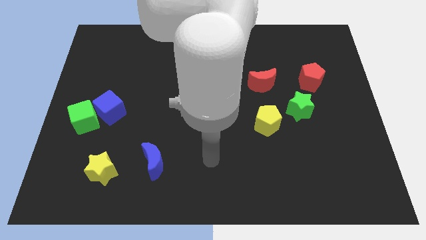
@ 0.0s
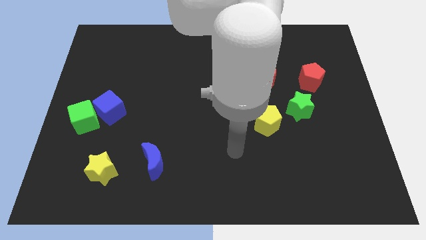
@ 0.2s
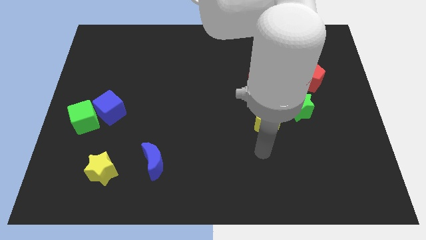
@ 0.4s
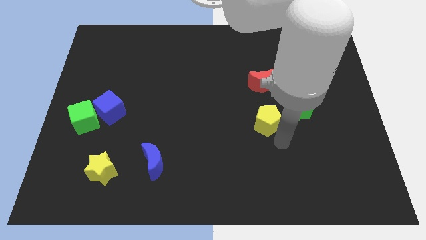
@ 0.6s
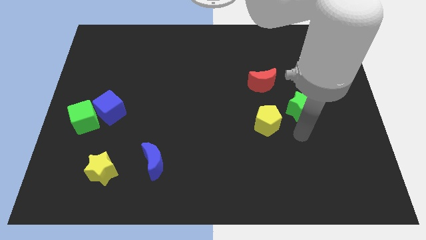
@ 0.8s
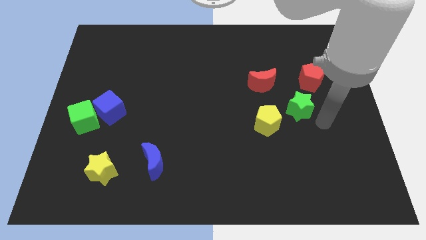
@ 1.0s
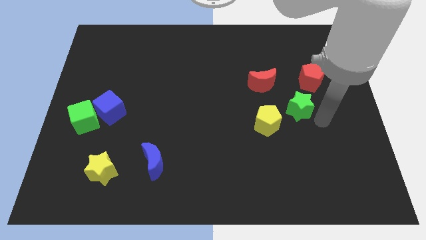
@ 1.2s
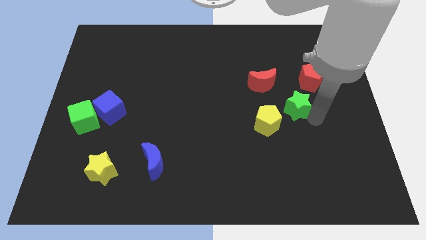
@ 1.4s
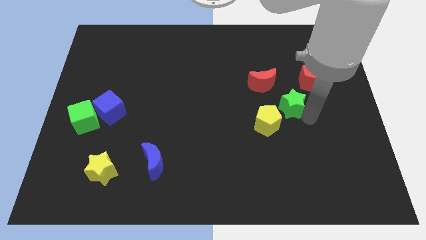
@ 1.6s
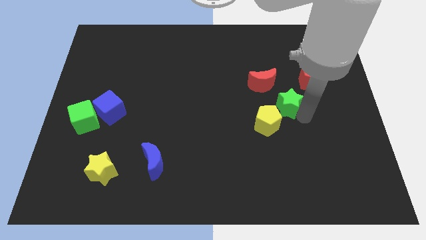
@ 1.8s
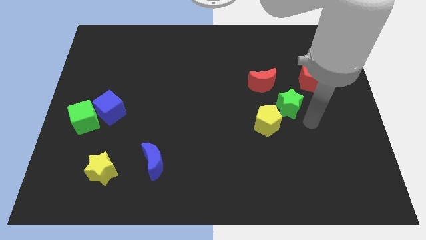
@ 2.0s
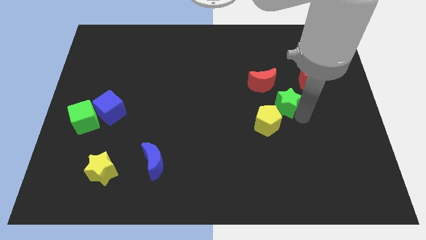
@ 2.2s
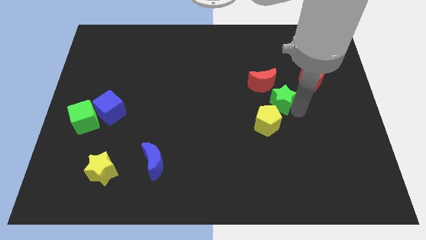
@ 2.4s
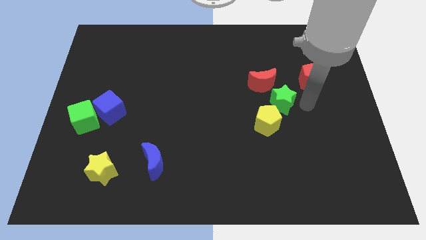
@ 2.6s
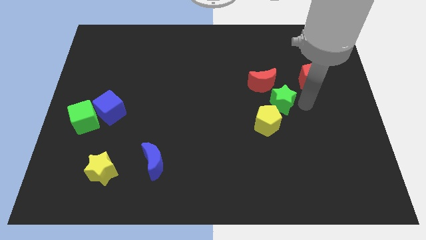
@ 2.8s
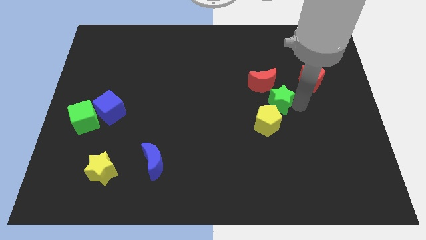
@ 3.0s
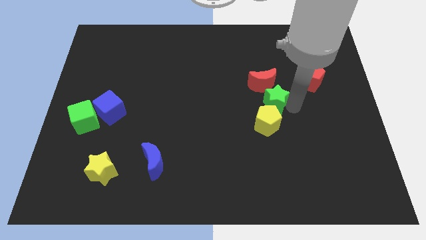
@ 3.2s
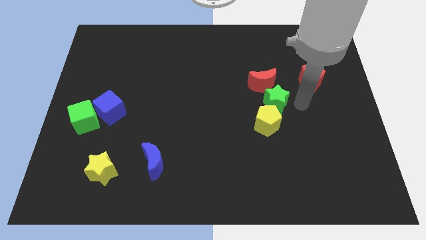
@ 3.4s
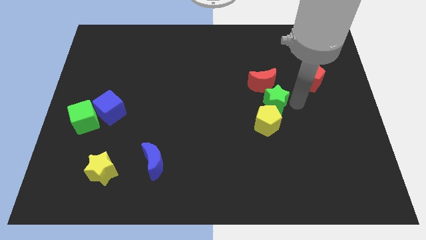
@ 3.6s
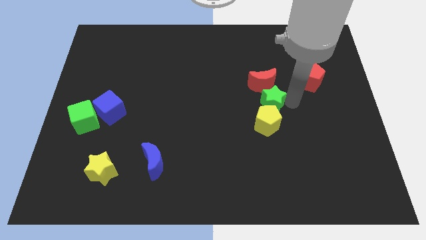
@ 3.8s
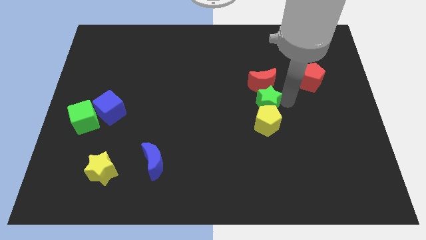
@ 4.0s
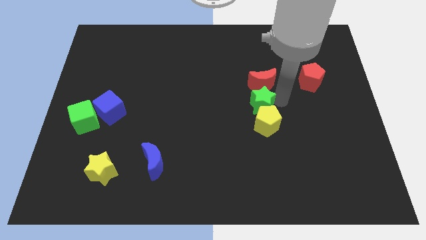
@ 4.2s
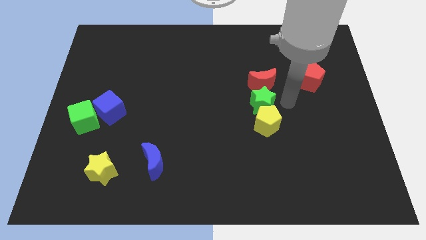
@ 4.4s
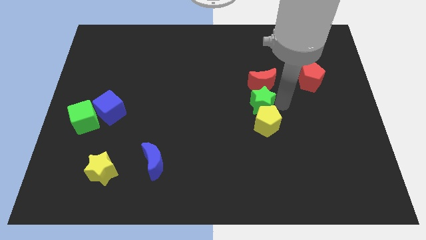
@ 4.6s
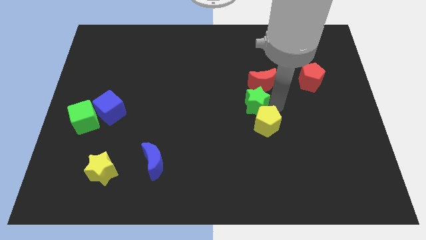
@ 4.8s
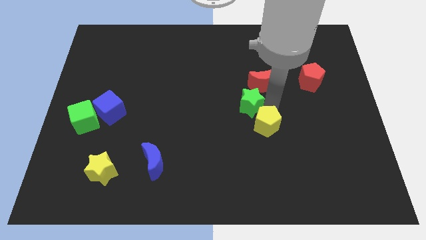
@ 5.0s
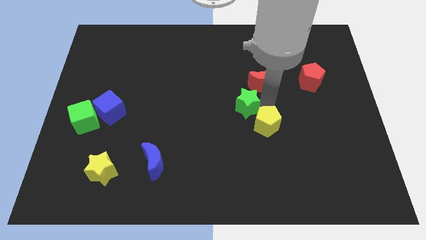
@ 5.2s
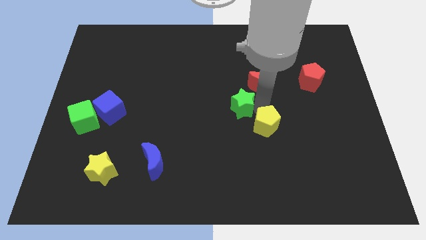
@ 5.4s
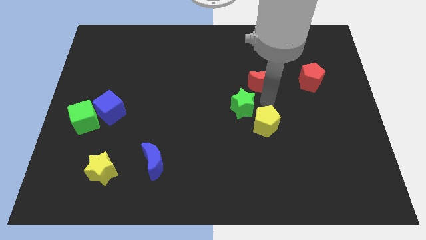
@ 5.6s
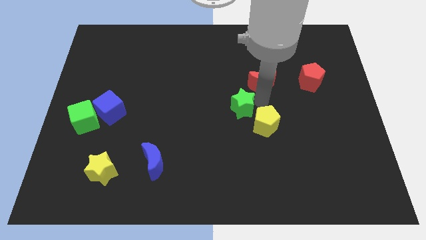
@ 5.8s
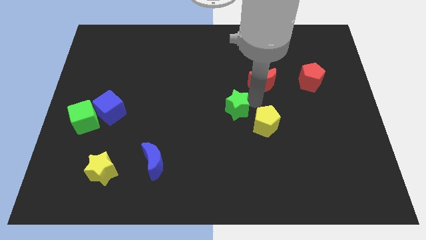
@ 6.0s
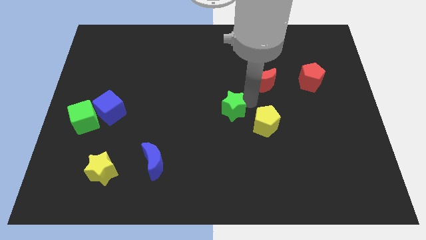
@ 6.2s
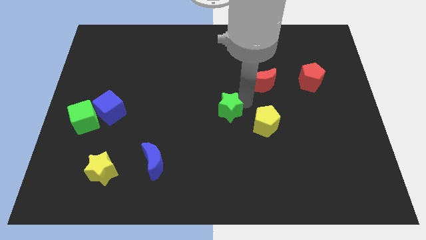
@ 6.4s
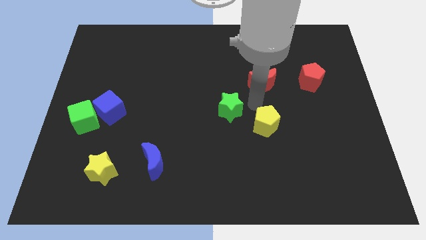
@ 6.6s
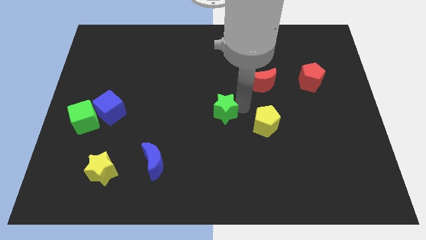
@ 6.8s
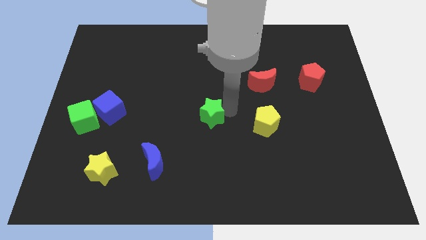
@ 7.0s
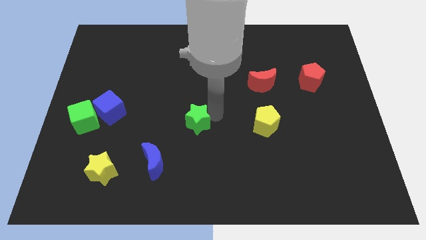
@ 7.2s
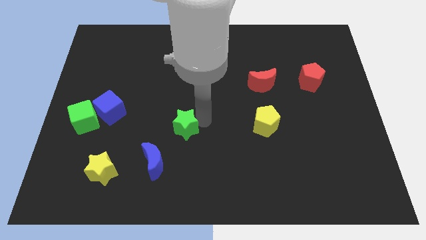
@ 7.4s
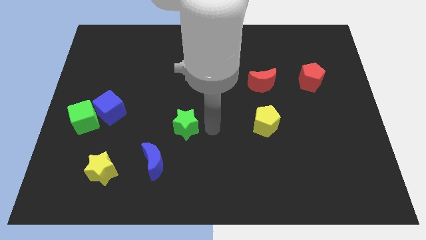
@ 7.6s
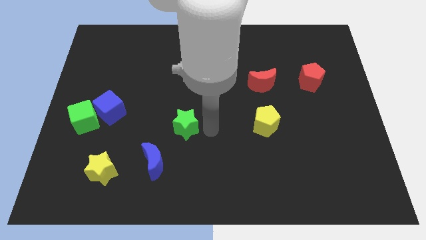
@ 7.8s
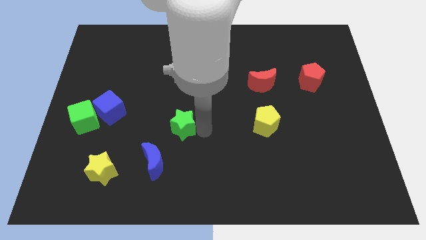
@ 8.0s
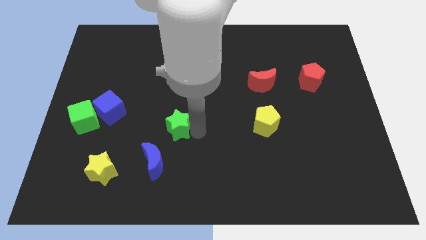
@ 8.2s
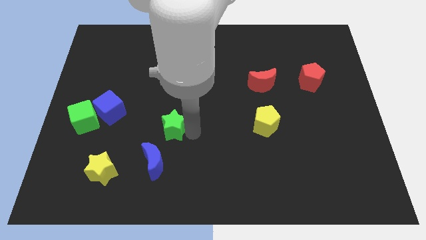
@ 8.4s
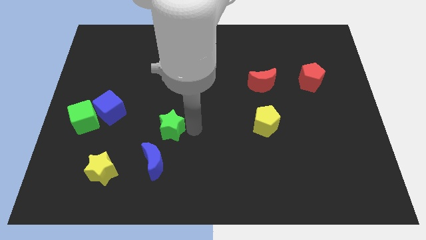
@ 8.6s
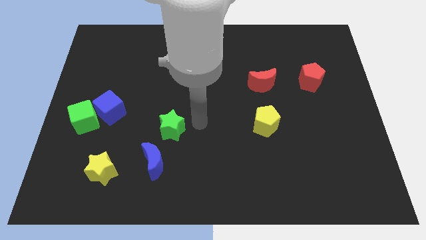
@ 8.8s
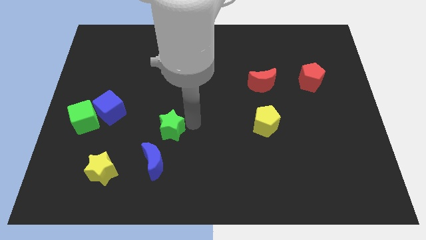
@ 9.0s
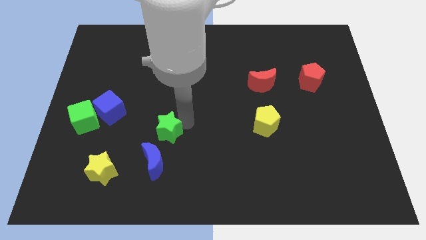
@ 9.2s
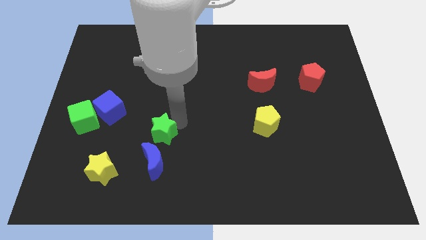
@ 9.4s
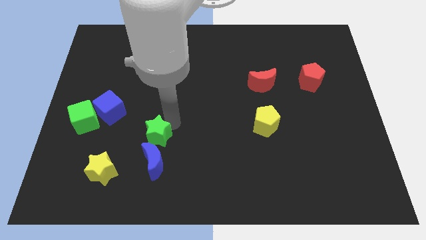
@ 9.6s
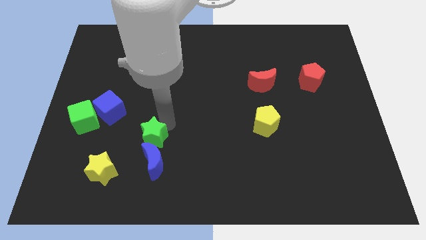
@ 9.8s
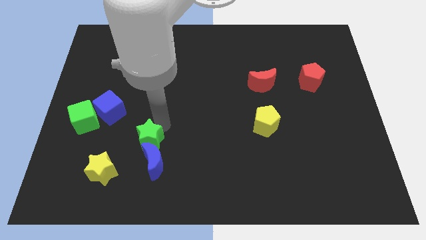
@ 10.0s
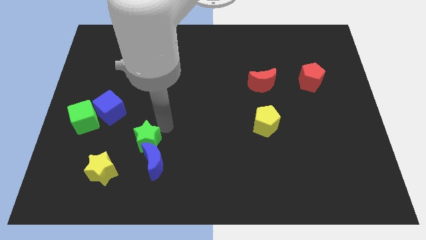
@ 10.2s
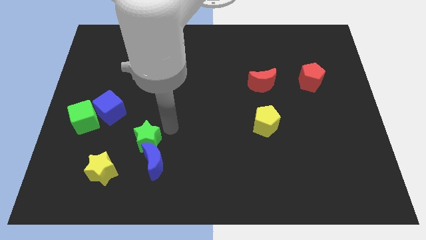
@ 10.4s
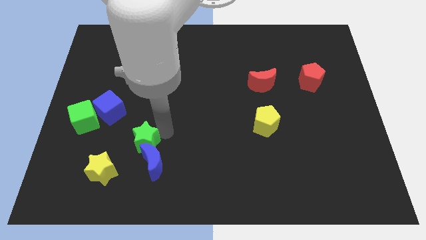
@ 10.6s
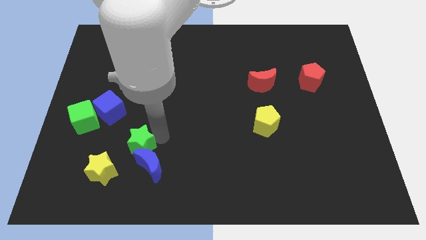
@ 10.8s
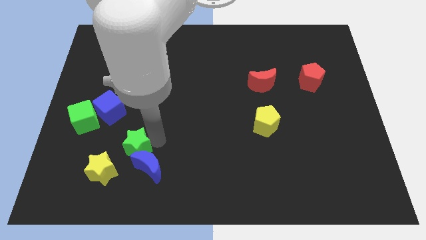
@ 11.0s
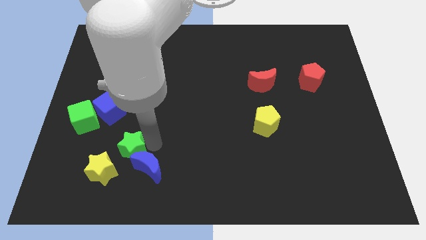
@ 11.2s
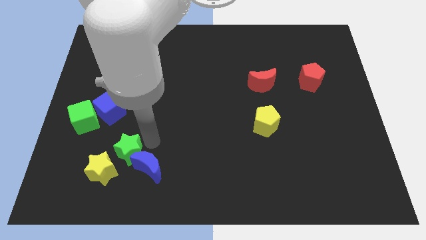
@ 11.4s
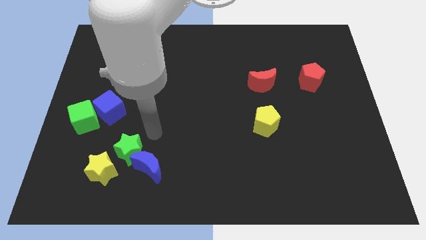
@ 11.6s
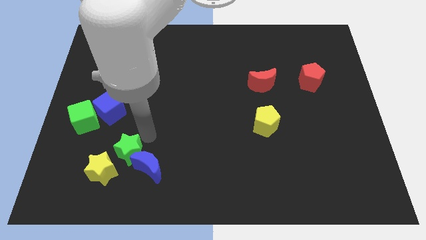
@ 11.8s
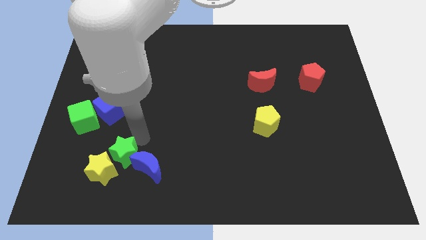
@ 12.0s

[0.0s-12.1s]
push the green star close to the yellow star

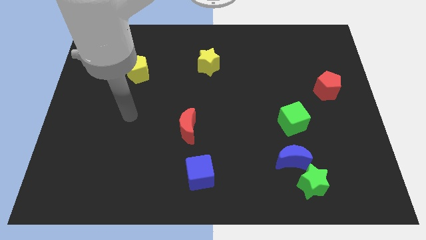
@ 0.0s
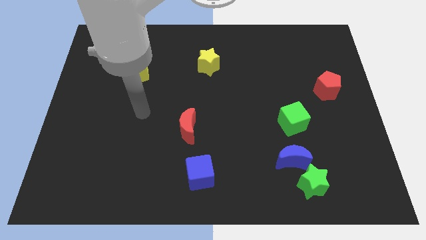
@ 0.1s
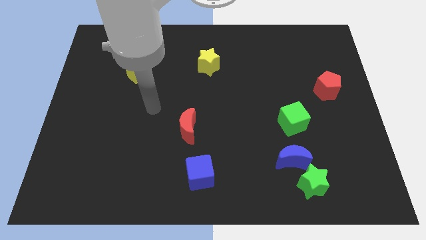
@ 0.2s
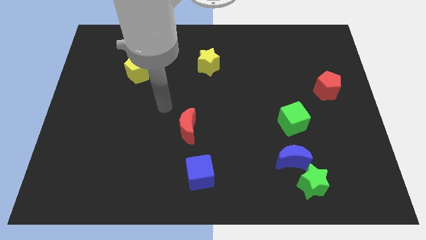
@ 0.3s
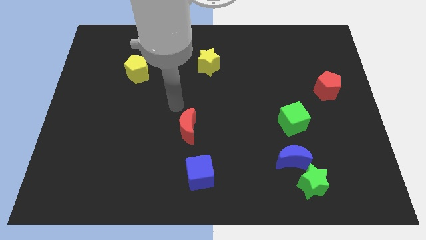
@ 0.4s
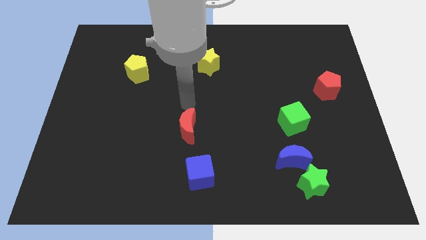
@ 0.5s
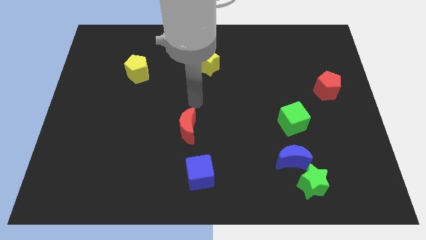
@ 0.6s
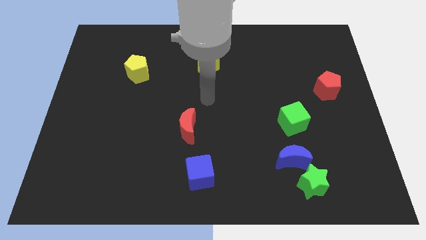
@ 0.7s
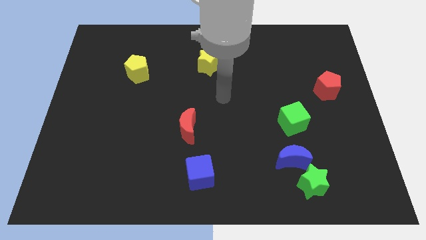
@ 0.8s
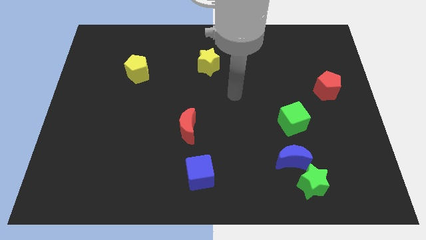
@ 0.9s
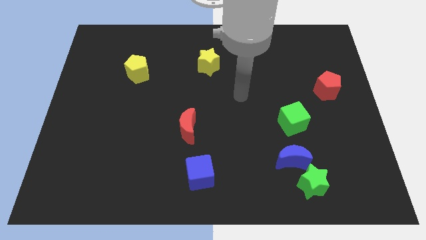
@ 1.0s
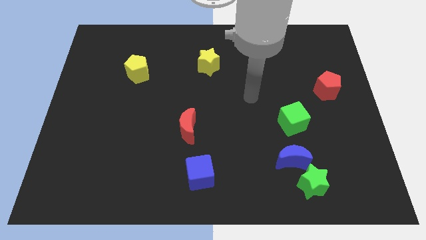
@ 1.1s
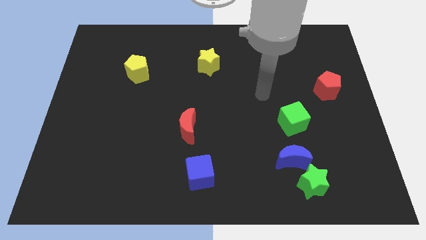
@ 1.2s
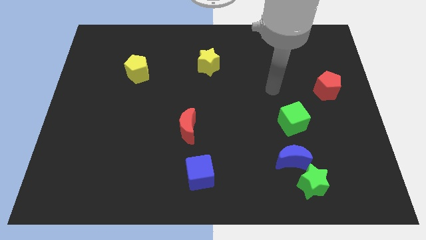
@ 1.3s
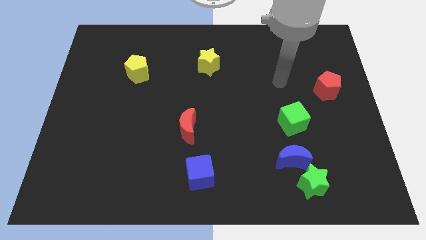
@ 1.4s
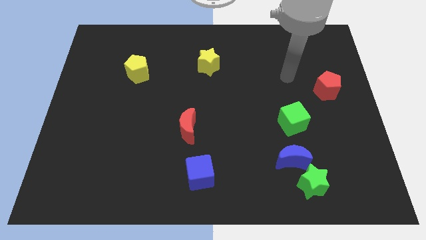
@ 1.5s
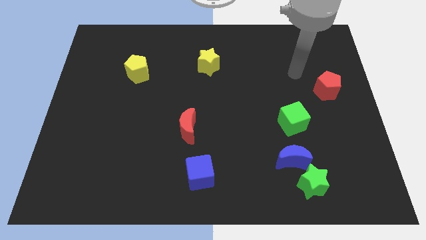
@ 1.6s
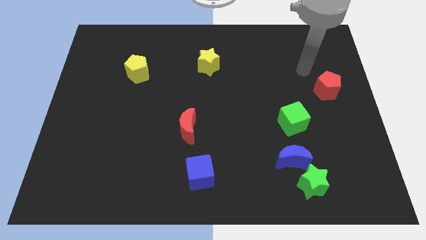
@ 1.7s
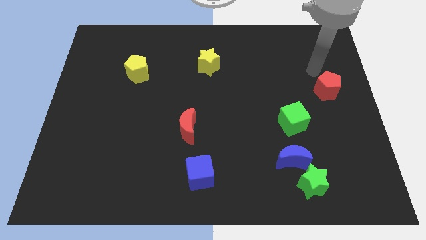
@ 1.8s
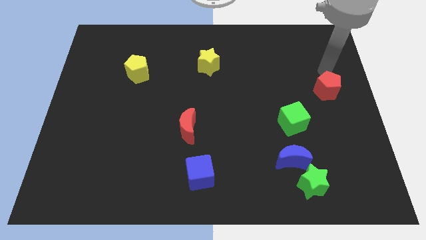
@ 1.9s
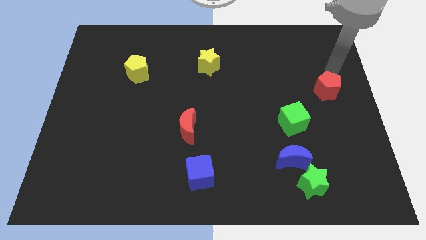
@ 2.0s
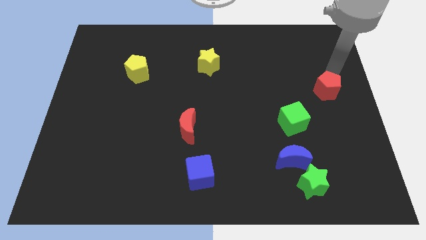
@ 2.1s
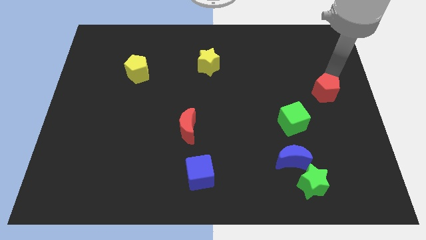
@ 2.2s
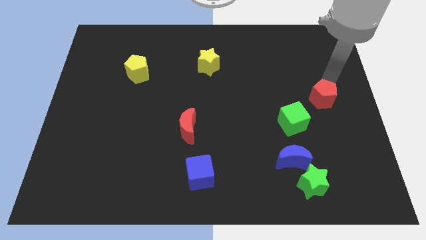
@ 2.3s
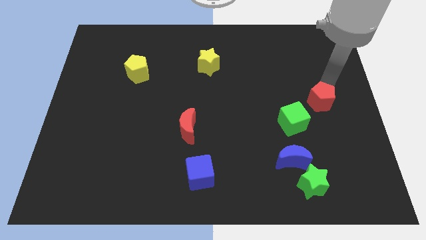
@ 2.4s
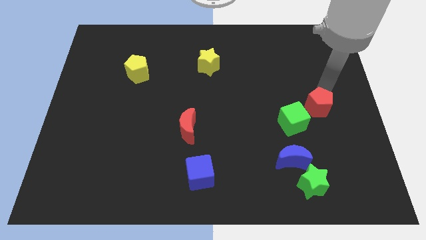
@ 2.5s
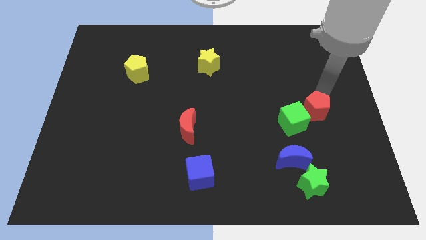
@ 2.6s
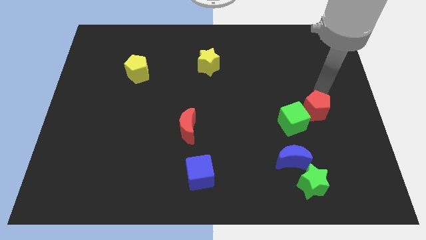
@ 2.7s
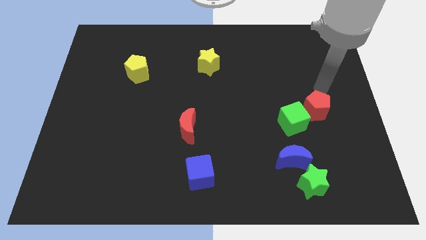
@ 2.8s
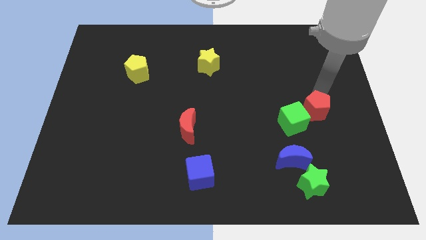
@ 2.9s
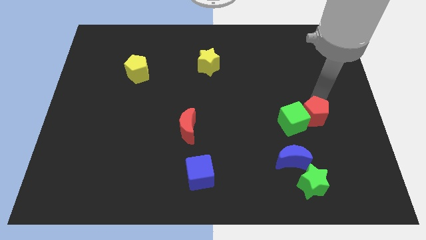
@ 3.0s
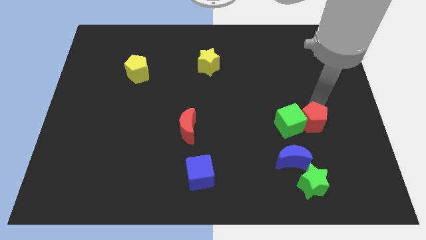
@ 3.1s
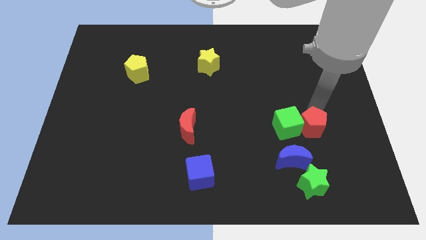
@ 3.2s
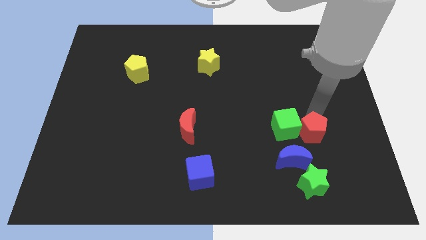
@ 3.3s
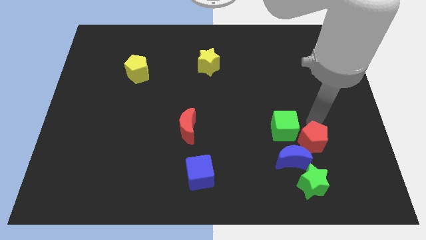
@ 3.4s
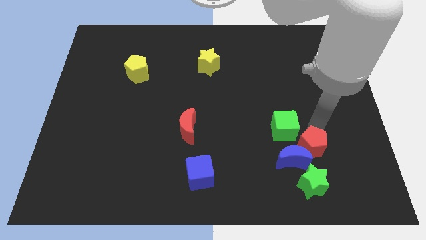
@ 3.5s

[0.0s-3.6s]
push the red pentagon to the blue moon
